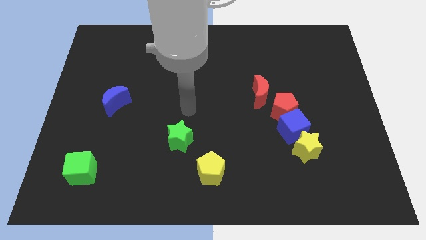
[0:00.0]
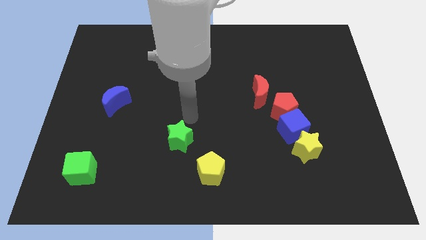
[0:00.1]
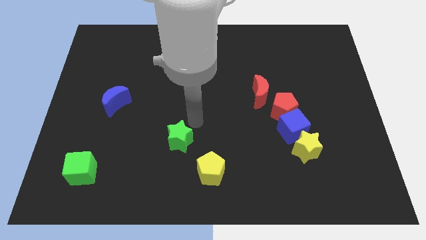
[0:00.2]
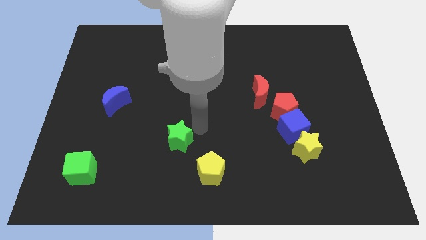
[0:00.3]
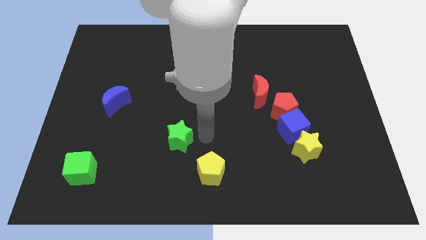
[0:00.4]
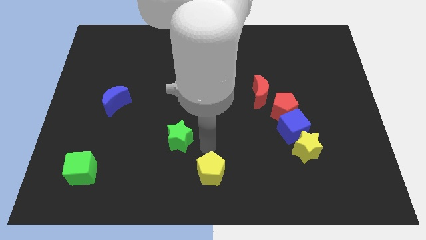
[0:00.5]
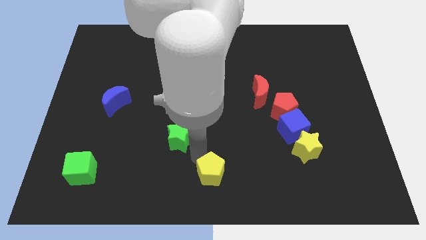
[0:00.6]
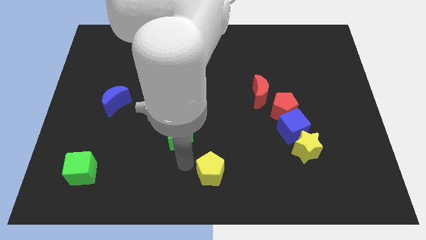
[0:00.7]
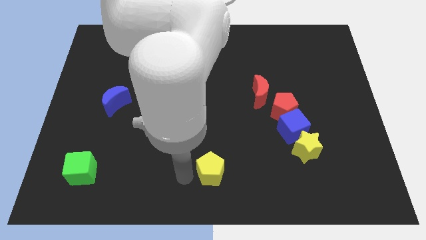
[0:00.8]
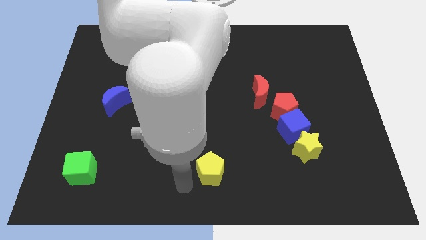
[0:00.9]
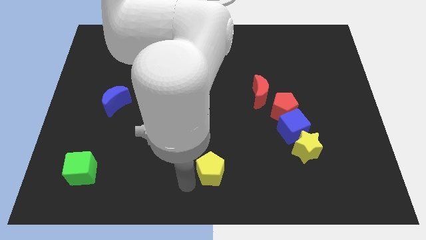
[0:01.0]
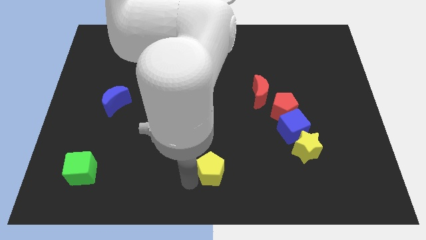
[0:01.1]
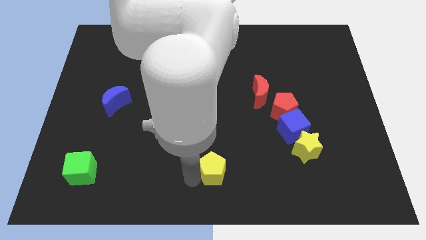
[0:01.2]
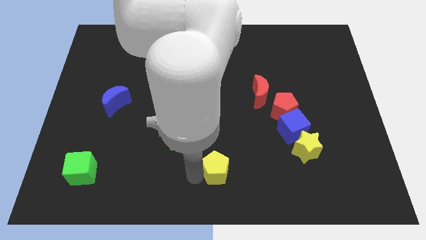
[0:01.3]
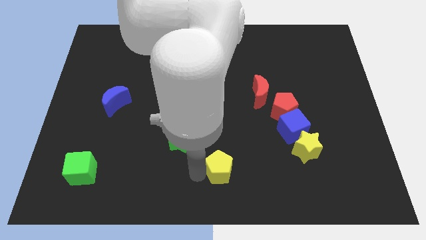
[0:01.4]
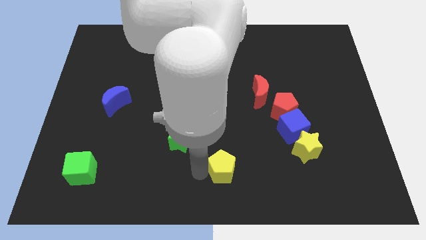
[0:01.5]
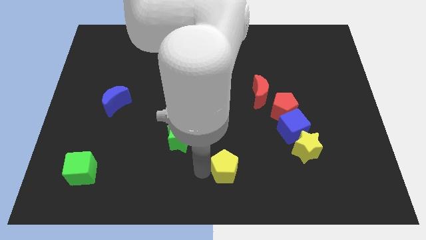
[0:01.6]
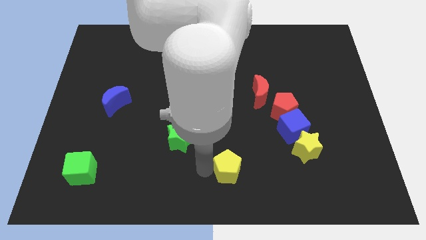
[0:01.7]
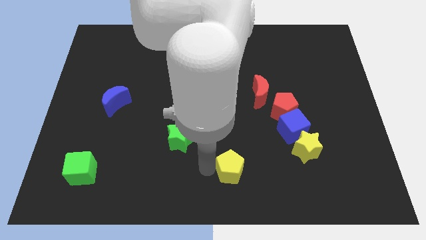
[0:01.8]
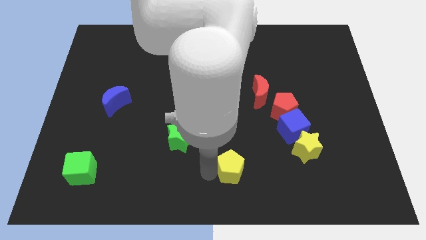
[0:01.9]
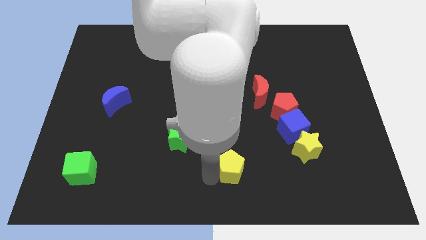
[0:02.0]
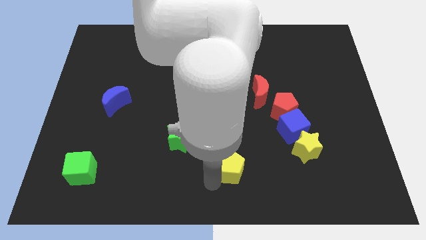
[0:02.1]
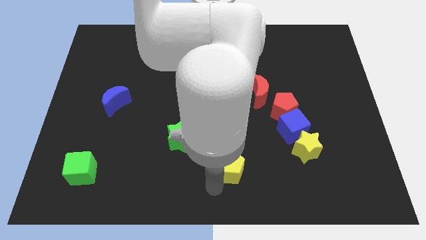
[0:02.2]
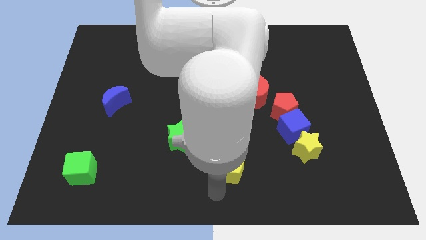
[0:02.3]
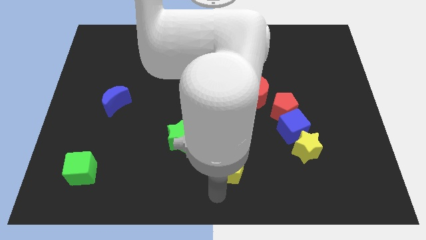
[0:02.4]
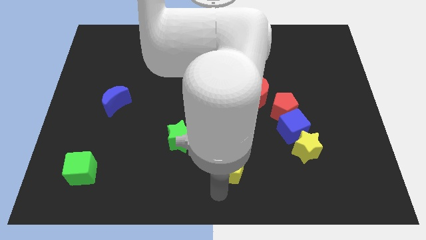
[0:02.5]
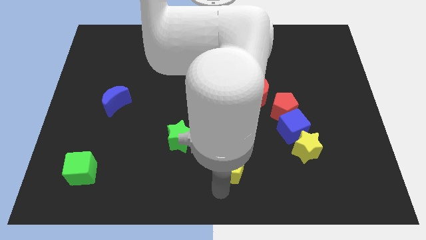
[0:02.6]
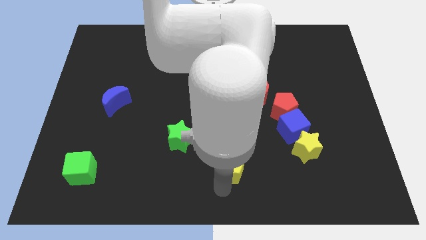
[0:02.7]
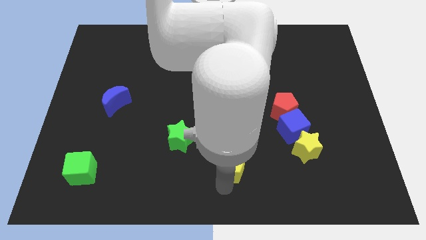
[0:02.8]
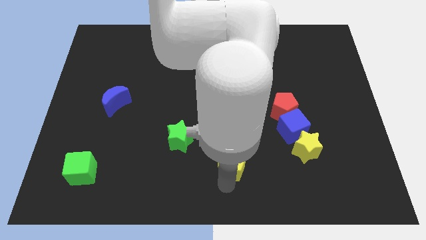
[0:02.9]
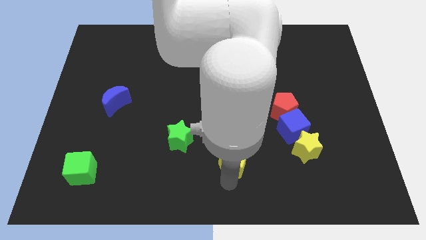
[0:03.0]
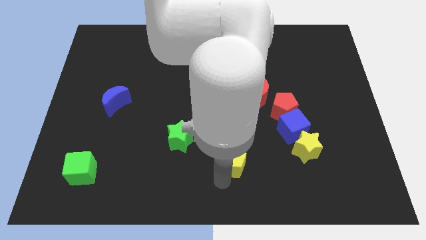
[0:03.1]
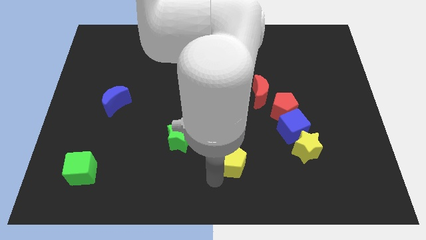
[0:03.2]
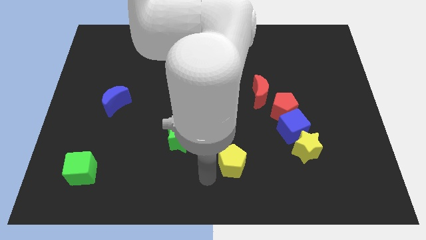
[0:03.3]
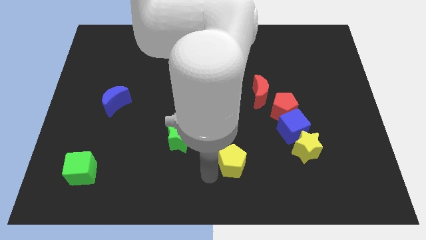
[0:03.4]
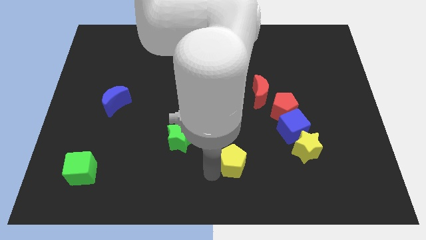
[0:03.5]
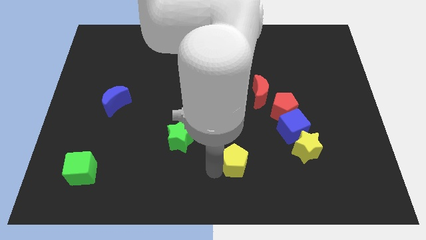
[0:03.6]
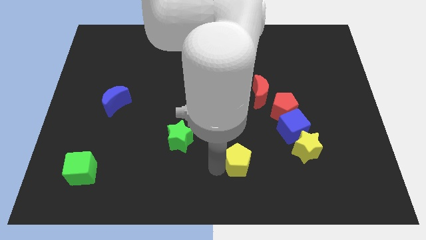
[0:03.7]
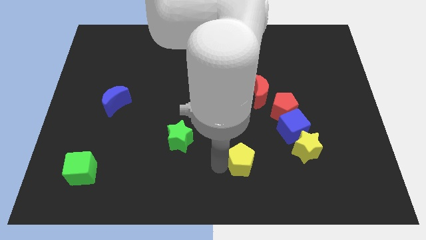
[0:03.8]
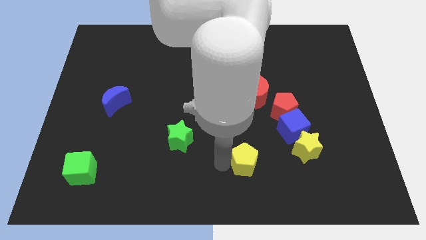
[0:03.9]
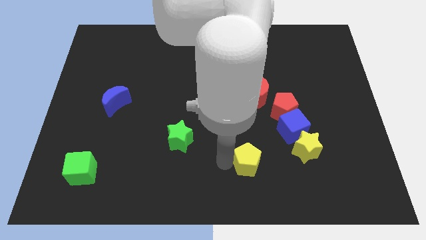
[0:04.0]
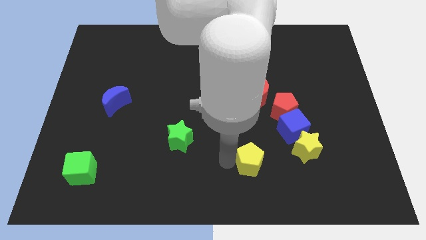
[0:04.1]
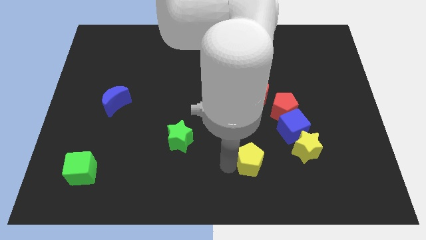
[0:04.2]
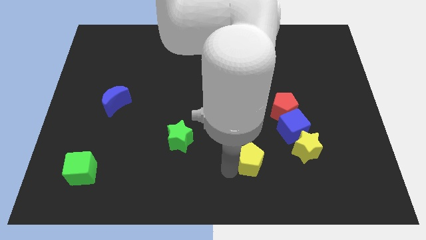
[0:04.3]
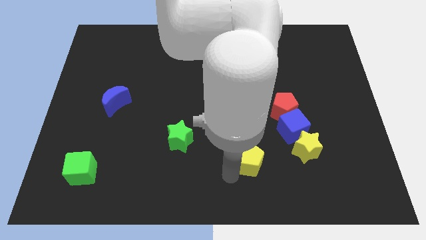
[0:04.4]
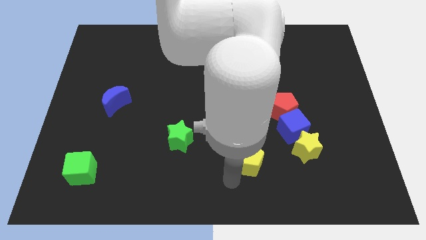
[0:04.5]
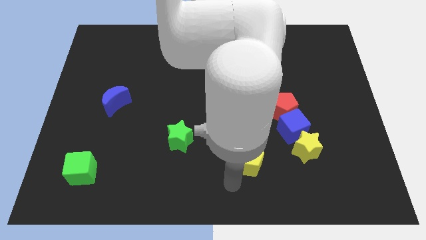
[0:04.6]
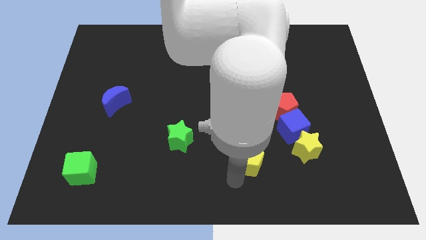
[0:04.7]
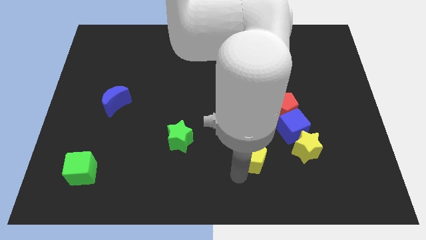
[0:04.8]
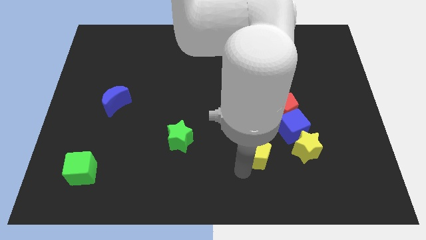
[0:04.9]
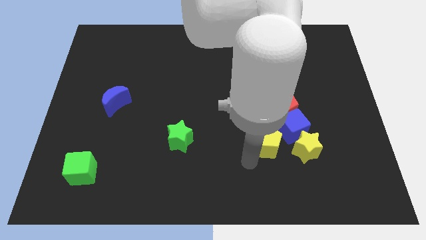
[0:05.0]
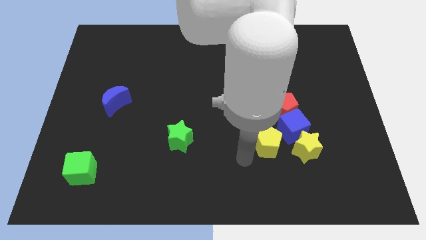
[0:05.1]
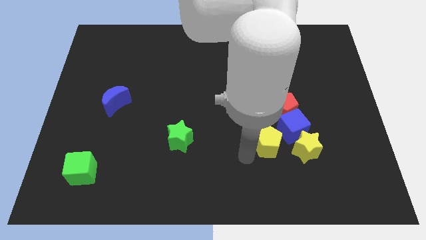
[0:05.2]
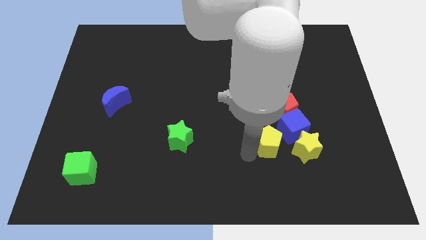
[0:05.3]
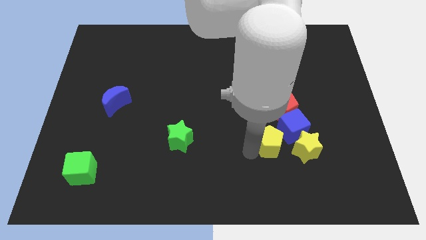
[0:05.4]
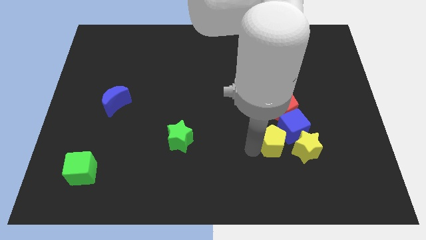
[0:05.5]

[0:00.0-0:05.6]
slide the yellow pentagon towards the blue cube

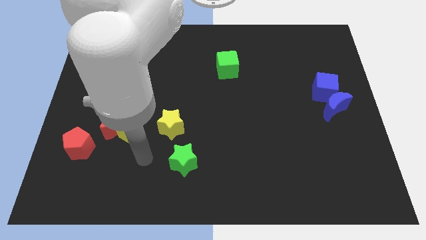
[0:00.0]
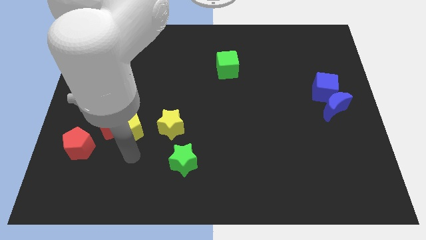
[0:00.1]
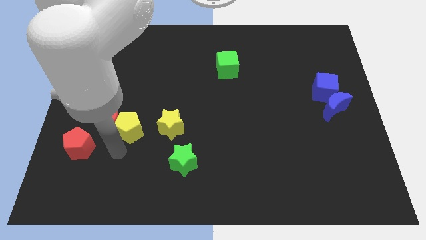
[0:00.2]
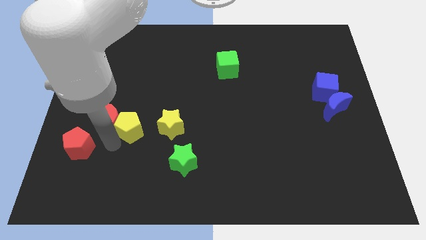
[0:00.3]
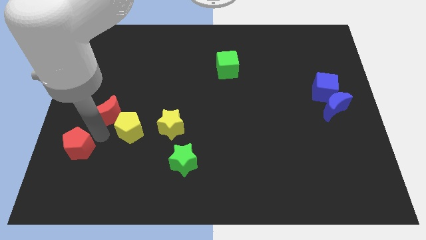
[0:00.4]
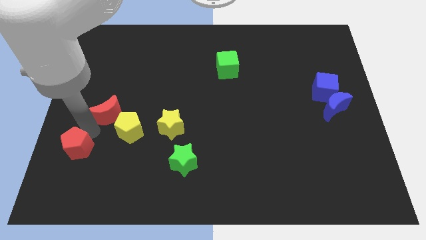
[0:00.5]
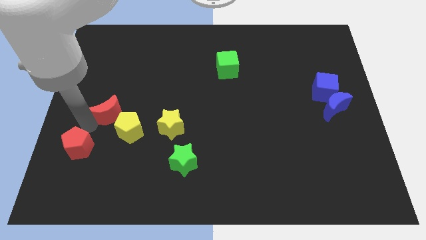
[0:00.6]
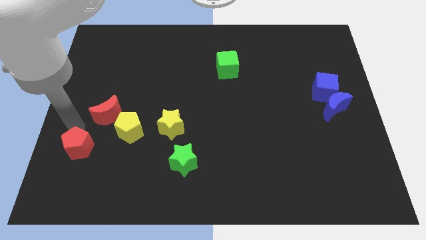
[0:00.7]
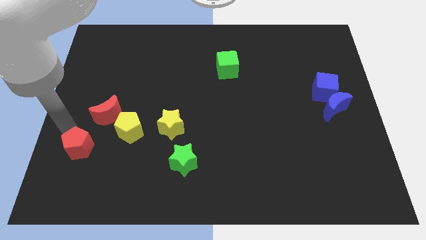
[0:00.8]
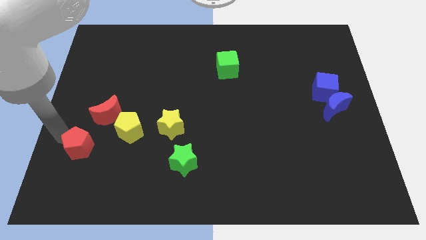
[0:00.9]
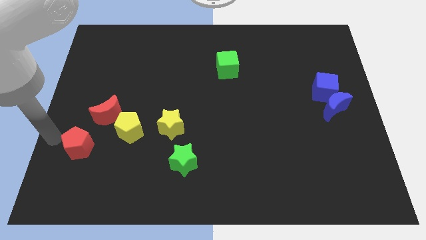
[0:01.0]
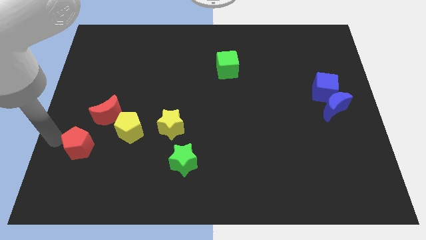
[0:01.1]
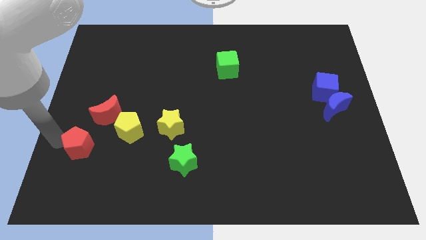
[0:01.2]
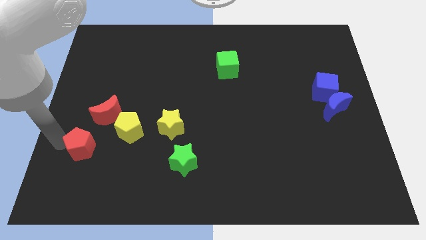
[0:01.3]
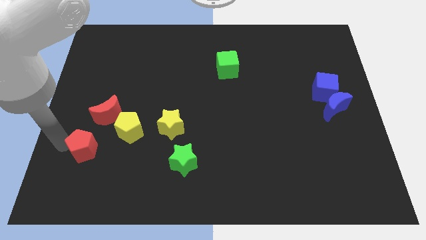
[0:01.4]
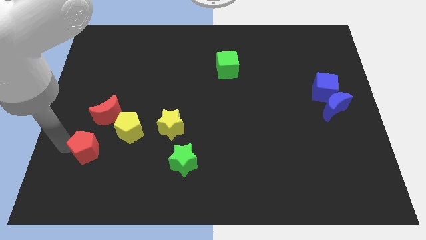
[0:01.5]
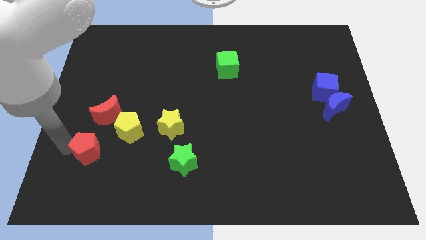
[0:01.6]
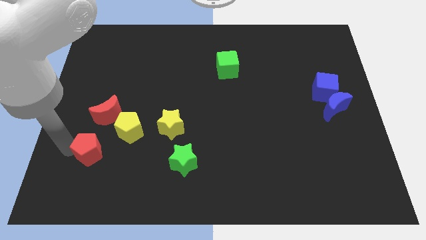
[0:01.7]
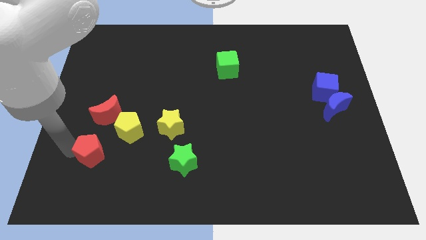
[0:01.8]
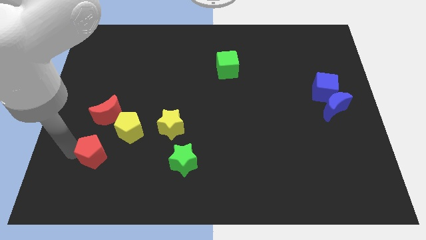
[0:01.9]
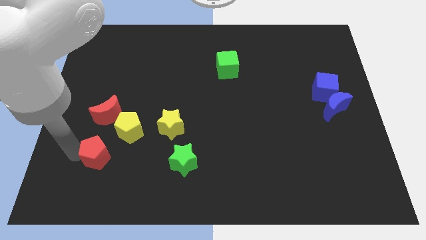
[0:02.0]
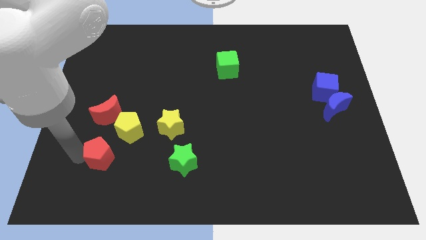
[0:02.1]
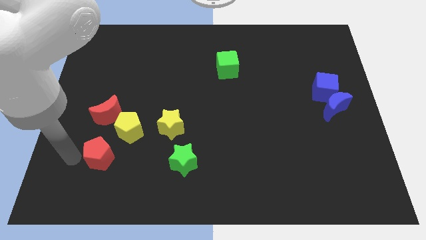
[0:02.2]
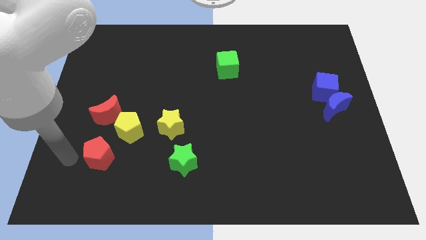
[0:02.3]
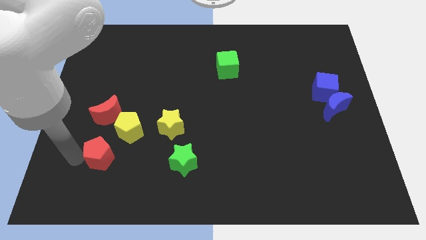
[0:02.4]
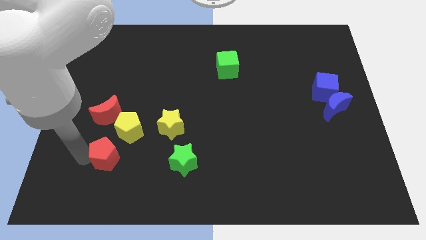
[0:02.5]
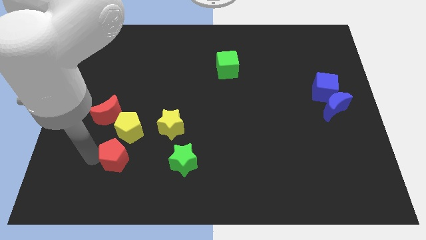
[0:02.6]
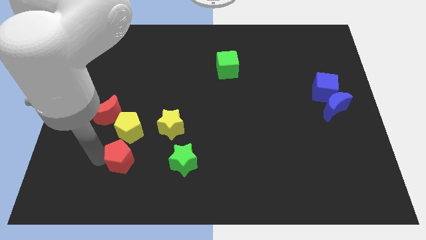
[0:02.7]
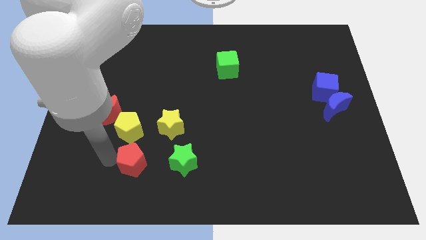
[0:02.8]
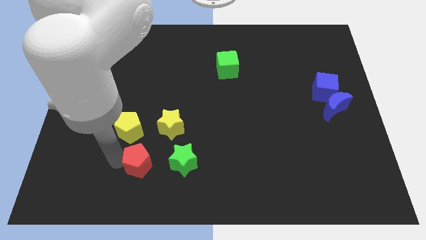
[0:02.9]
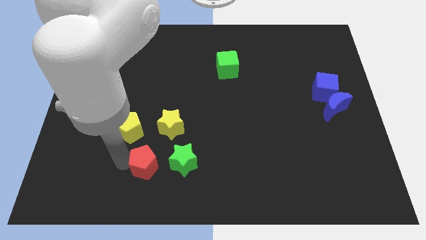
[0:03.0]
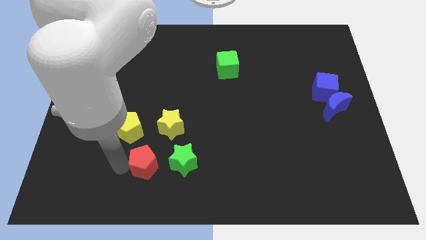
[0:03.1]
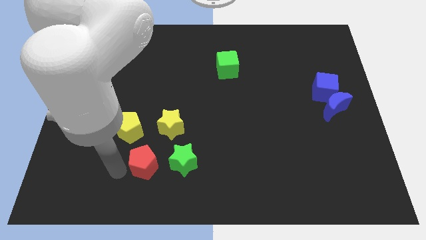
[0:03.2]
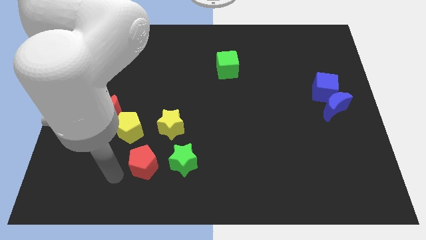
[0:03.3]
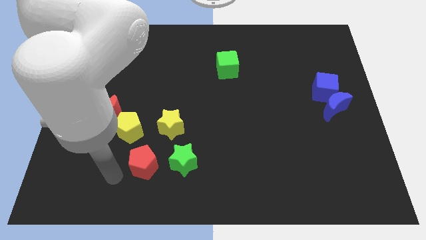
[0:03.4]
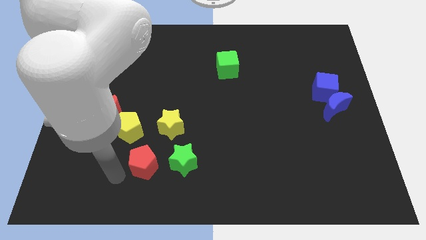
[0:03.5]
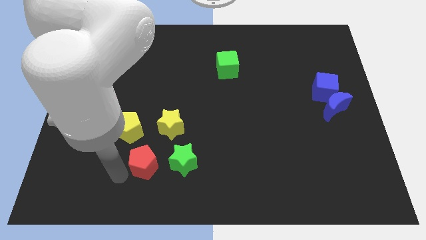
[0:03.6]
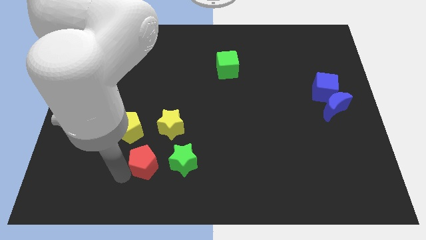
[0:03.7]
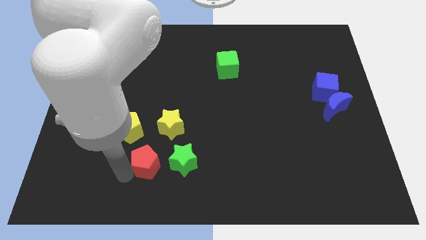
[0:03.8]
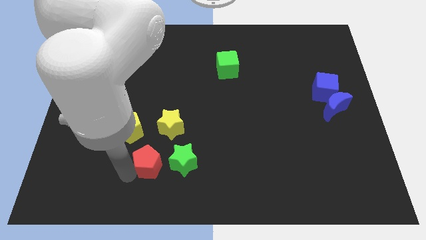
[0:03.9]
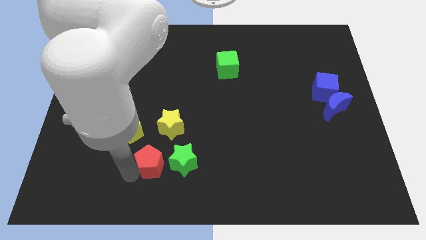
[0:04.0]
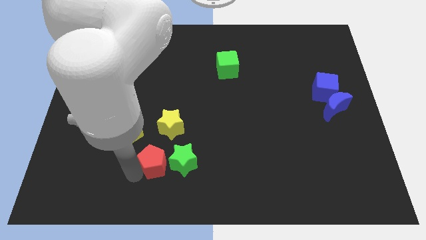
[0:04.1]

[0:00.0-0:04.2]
push the red pentagon towards the green star
